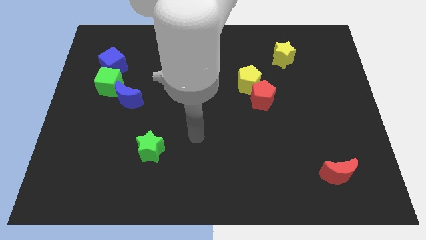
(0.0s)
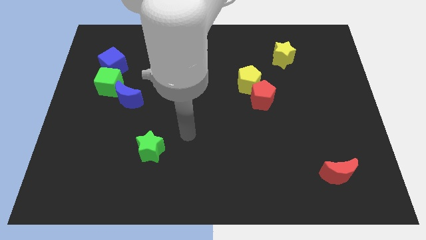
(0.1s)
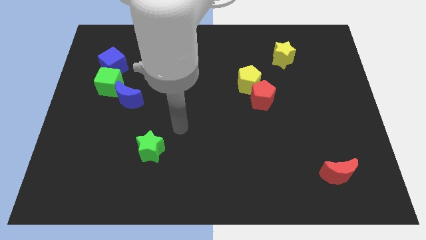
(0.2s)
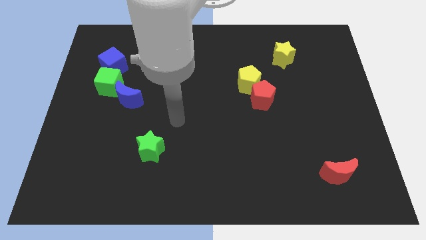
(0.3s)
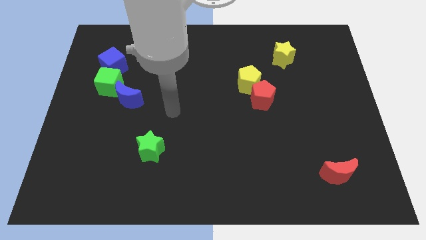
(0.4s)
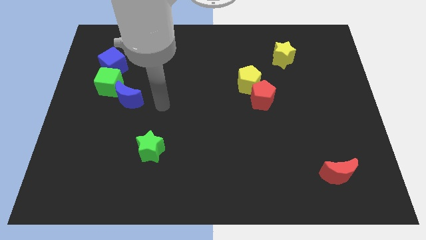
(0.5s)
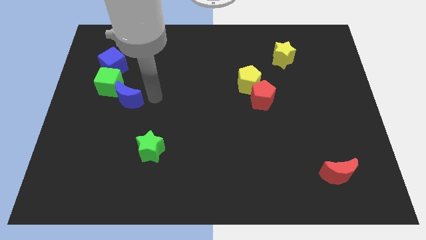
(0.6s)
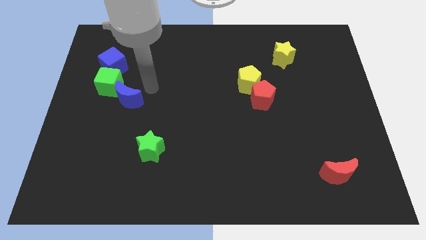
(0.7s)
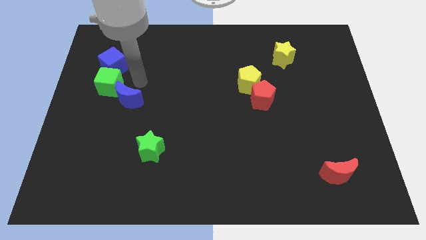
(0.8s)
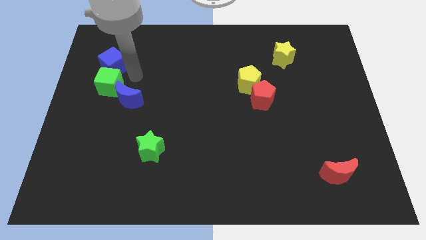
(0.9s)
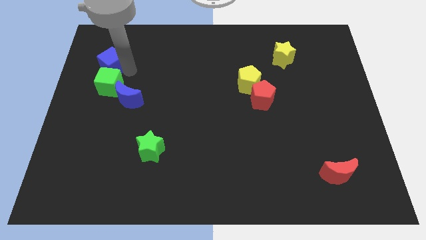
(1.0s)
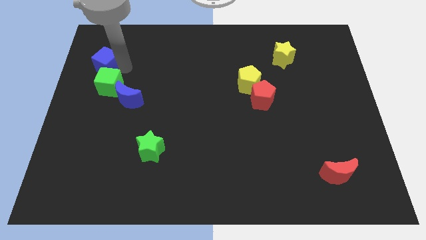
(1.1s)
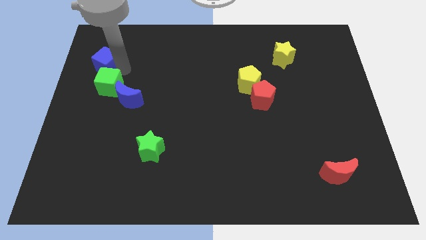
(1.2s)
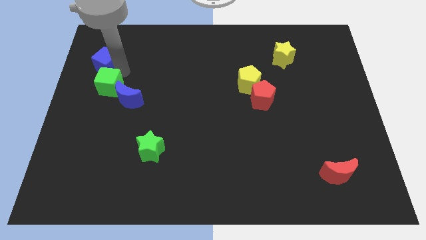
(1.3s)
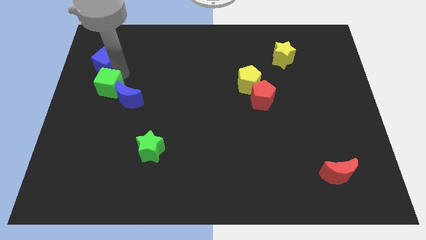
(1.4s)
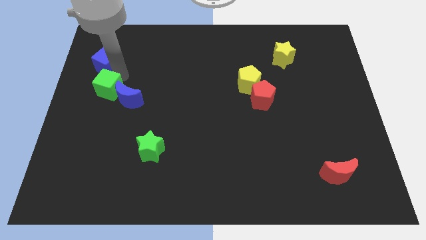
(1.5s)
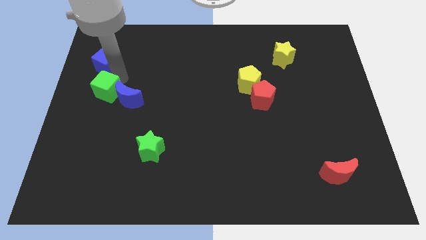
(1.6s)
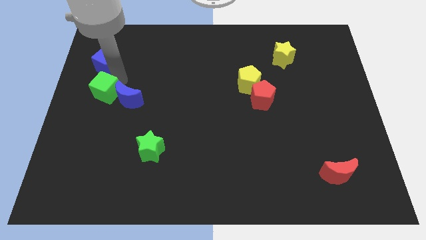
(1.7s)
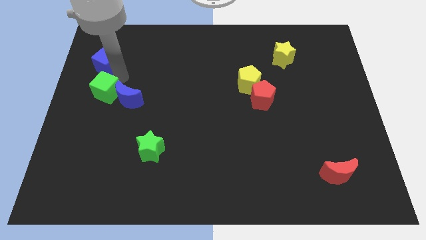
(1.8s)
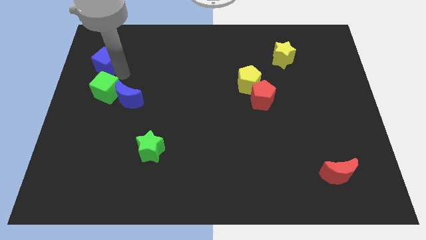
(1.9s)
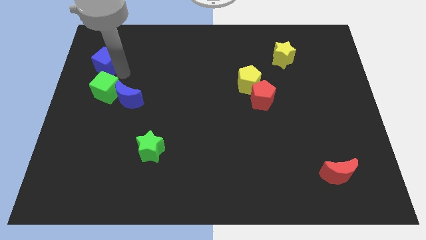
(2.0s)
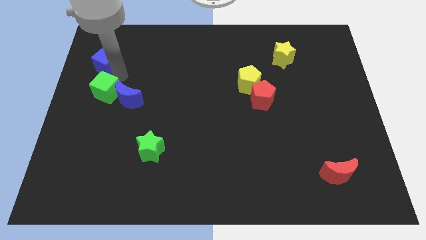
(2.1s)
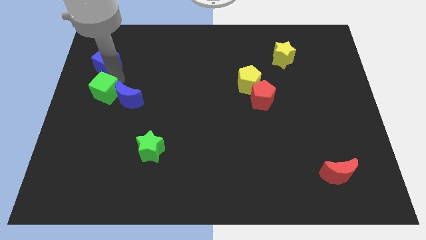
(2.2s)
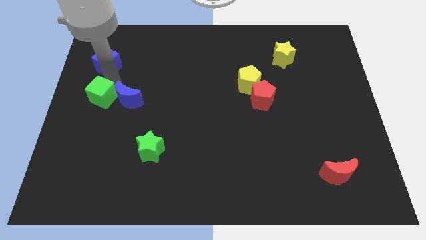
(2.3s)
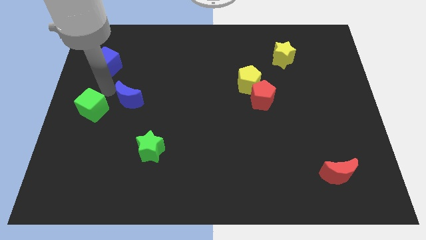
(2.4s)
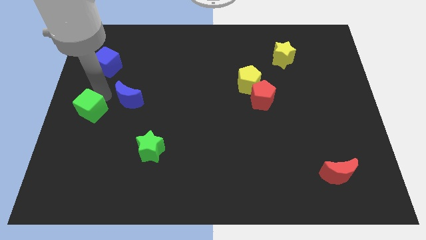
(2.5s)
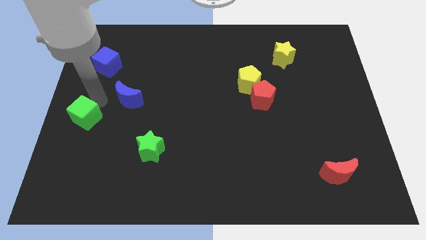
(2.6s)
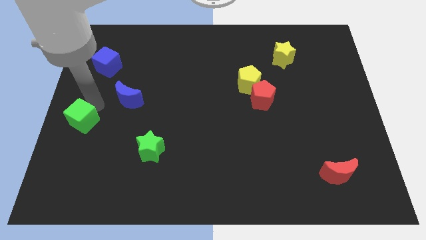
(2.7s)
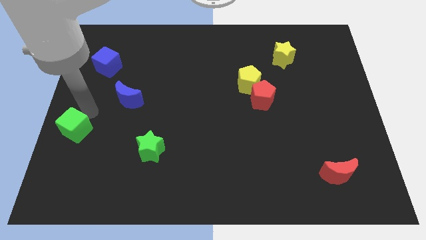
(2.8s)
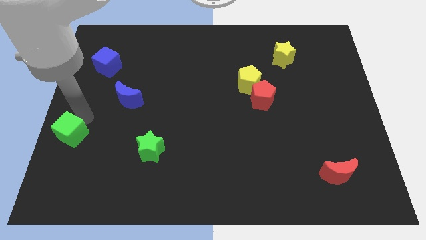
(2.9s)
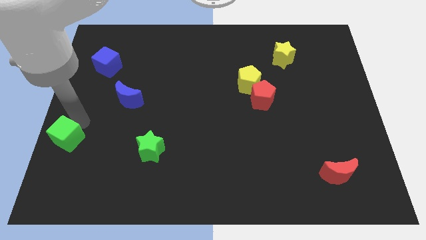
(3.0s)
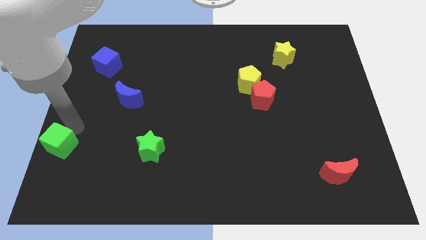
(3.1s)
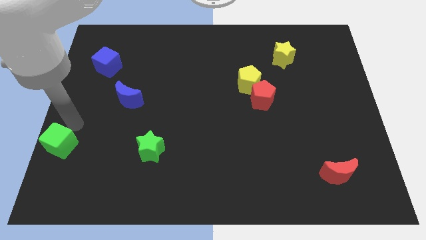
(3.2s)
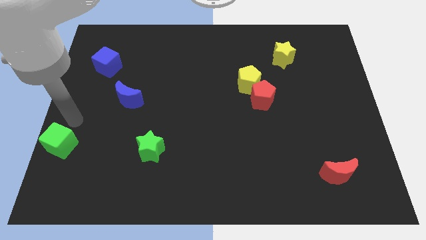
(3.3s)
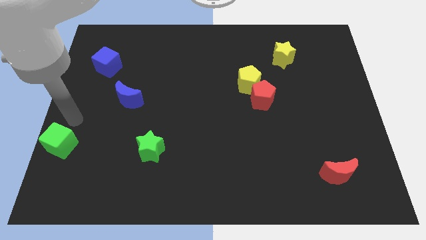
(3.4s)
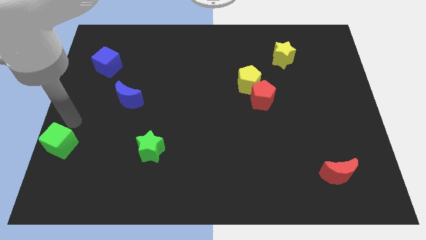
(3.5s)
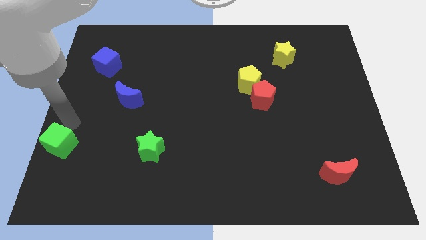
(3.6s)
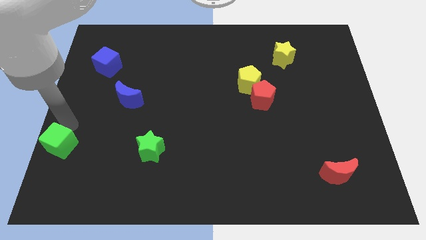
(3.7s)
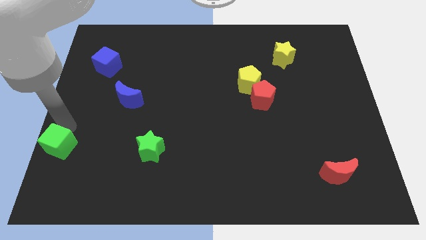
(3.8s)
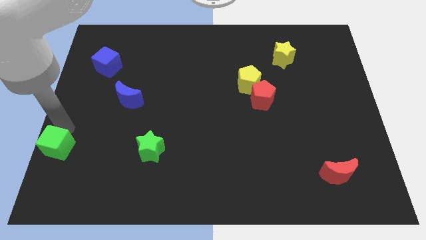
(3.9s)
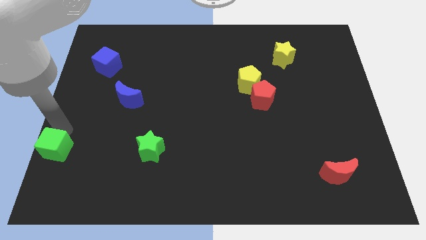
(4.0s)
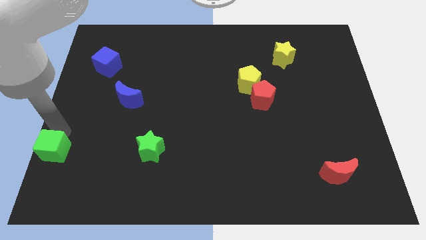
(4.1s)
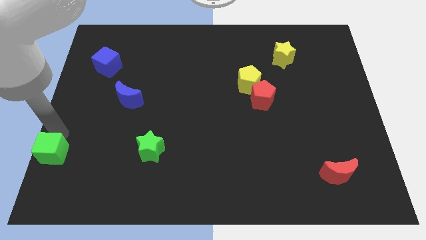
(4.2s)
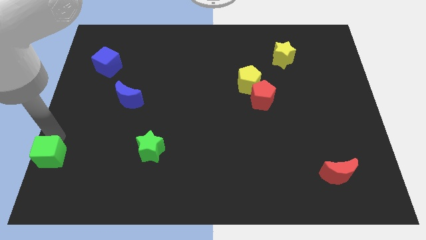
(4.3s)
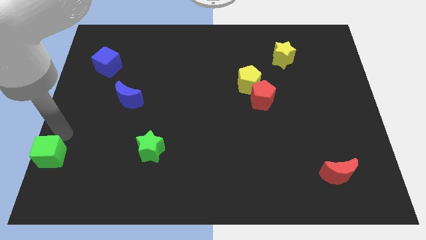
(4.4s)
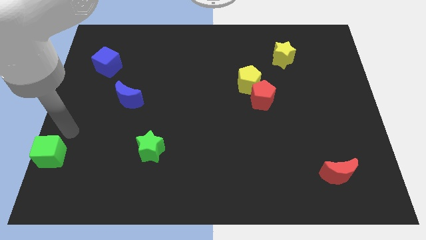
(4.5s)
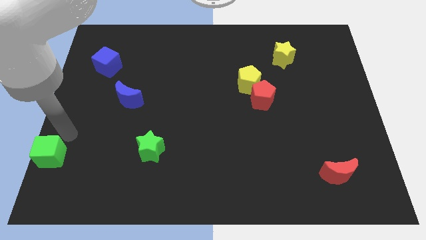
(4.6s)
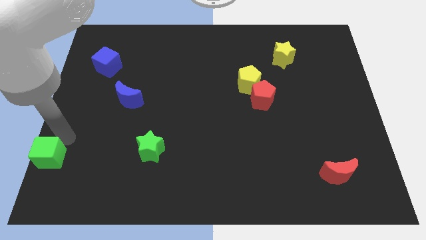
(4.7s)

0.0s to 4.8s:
put the green cube to the bottom left corner

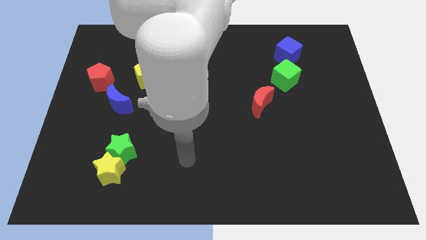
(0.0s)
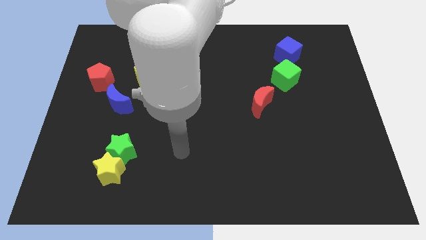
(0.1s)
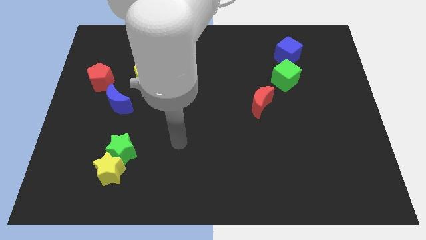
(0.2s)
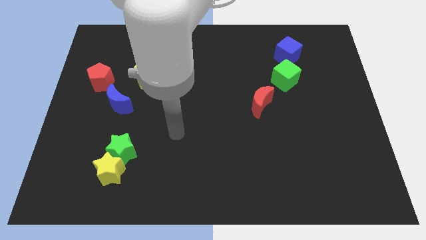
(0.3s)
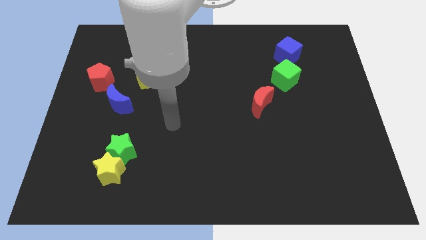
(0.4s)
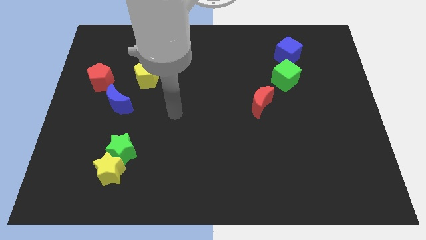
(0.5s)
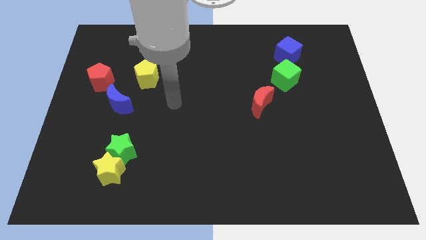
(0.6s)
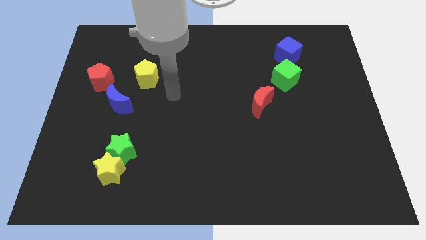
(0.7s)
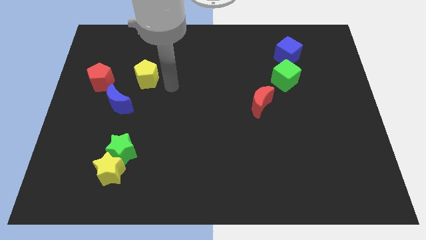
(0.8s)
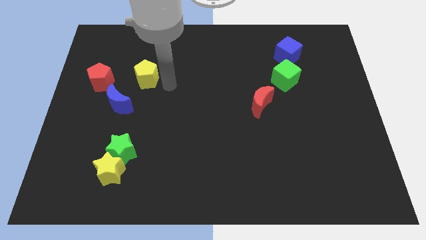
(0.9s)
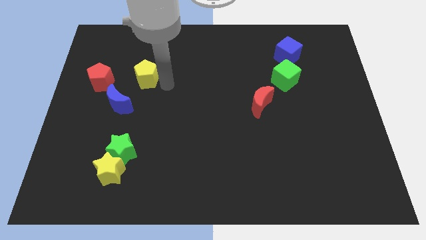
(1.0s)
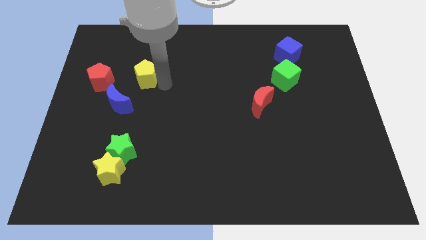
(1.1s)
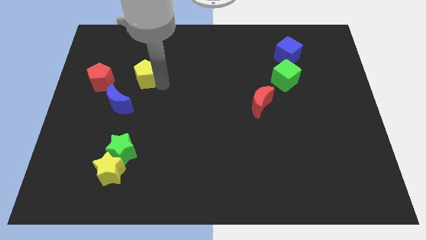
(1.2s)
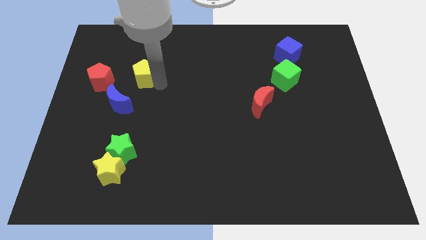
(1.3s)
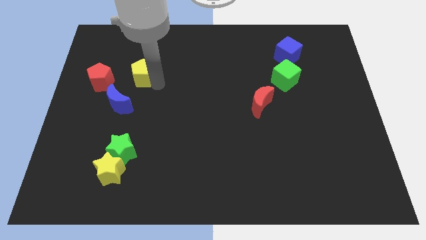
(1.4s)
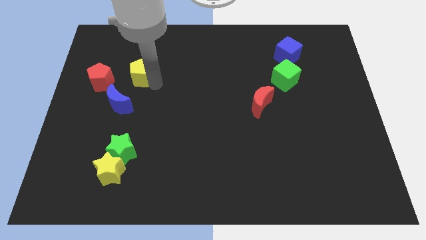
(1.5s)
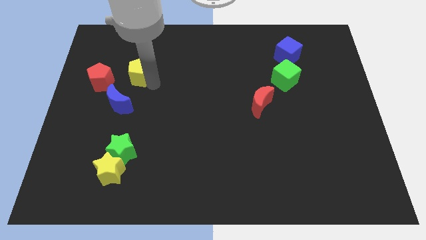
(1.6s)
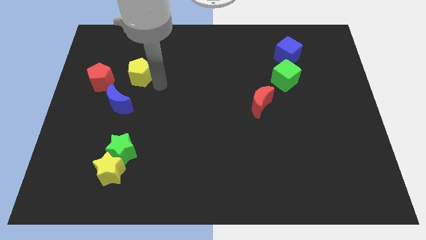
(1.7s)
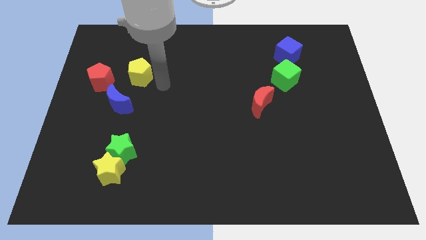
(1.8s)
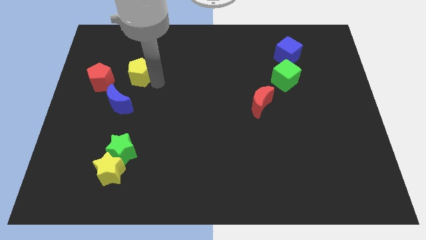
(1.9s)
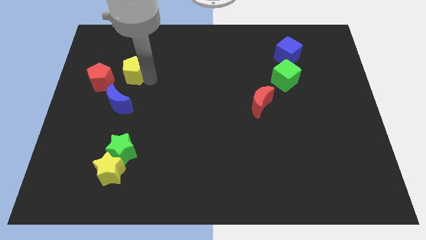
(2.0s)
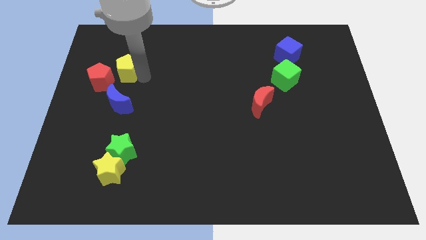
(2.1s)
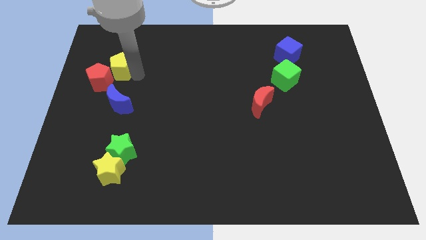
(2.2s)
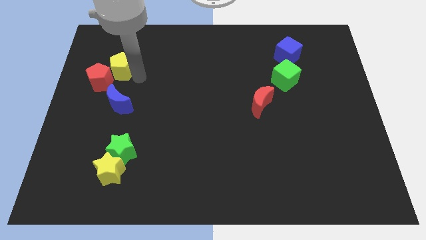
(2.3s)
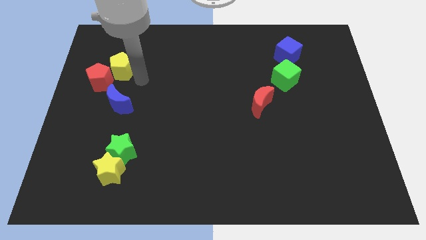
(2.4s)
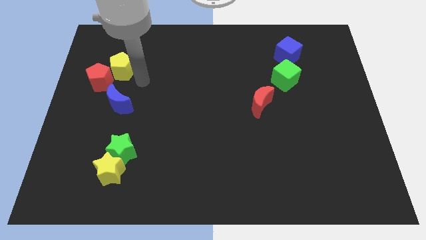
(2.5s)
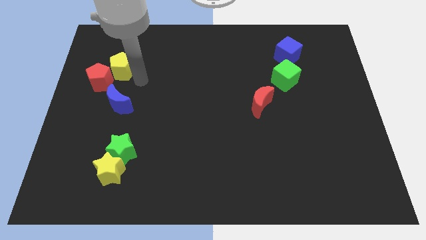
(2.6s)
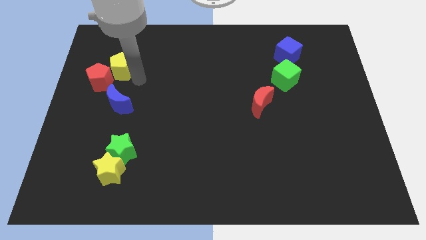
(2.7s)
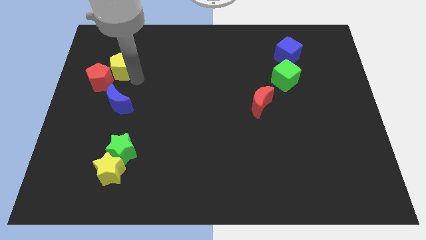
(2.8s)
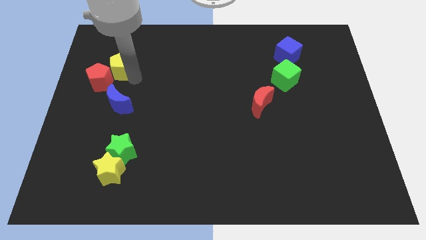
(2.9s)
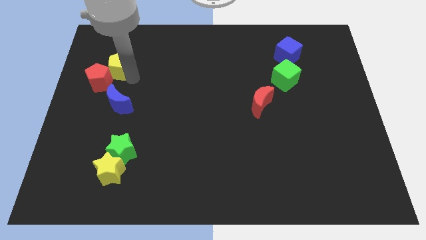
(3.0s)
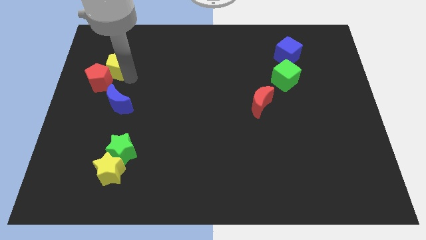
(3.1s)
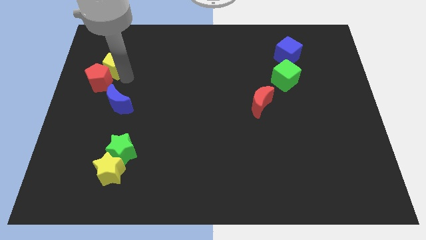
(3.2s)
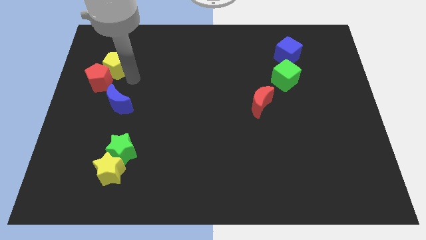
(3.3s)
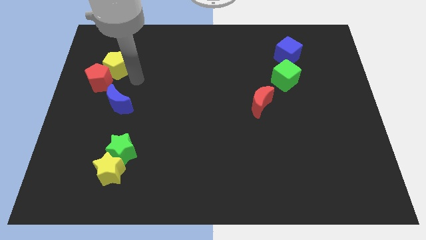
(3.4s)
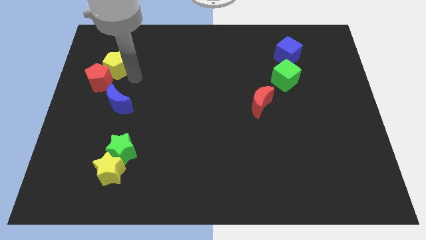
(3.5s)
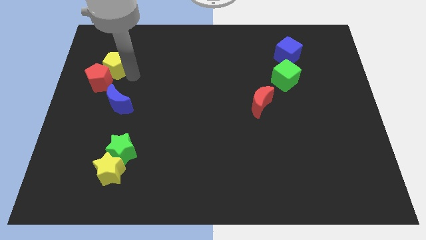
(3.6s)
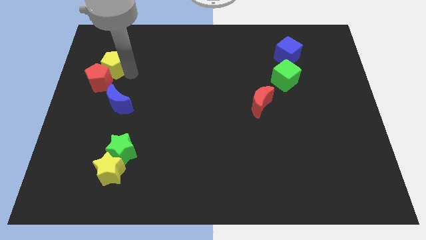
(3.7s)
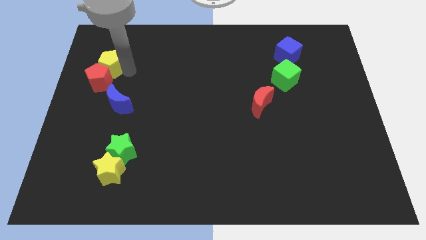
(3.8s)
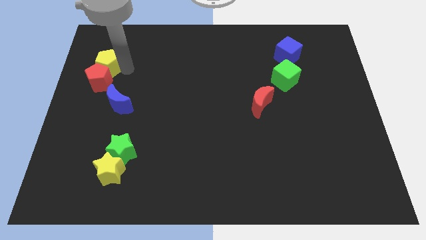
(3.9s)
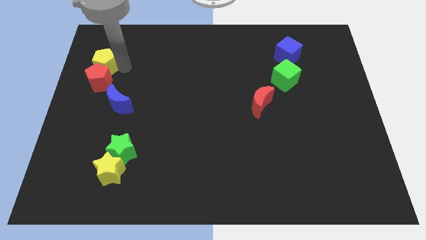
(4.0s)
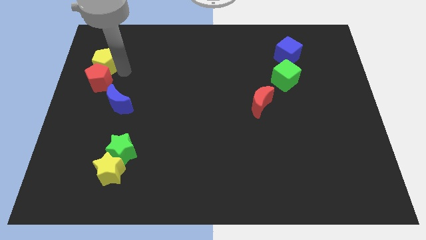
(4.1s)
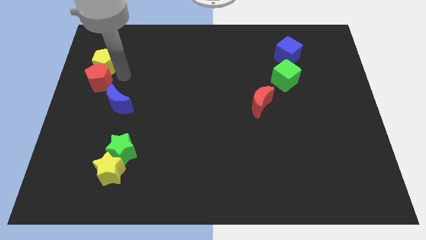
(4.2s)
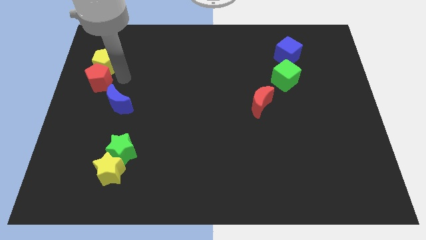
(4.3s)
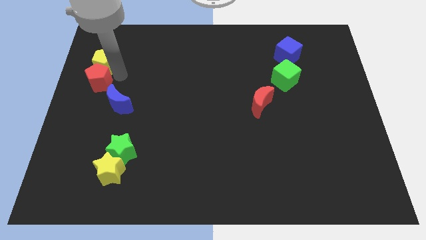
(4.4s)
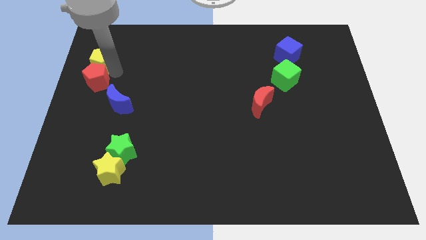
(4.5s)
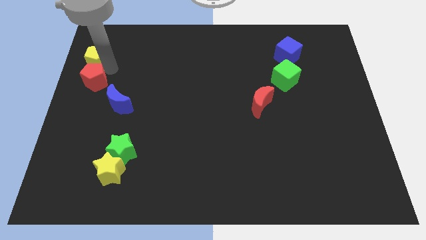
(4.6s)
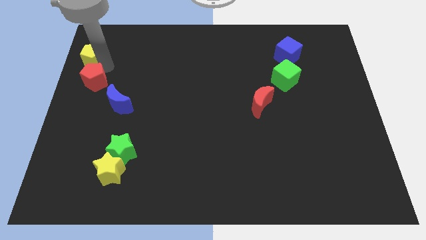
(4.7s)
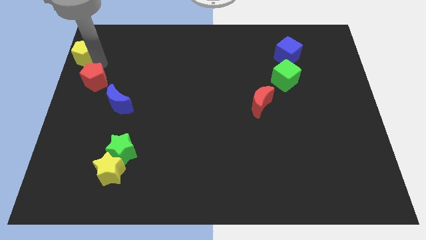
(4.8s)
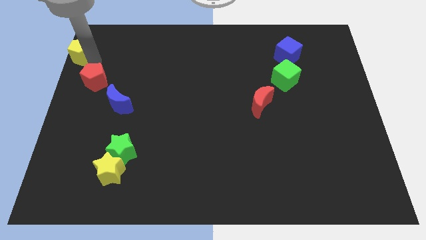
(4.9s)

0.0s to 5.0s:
slide the yellow pentagon to the top left corner
